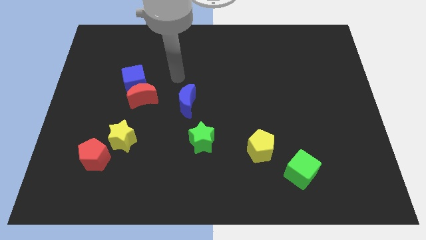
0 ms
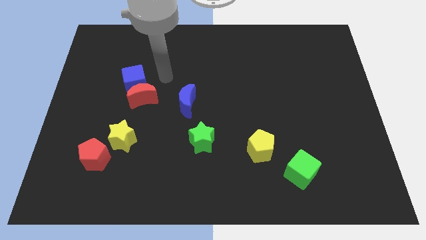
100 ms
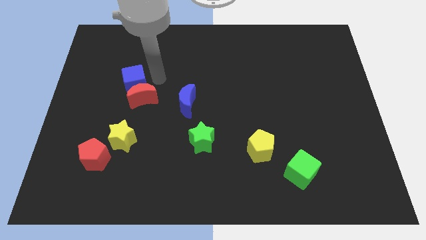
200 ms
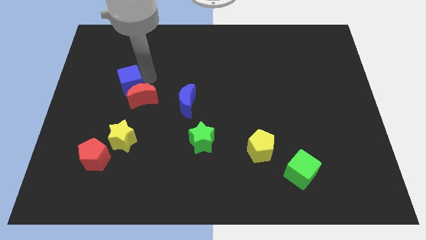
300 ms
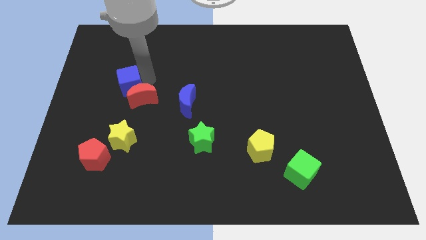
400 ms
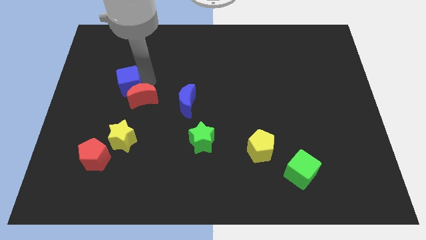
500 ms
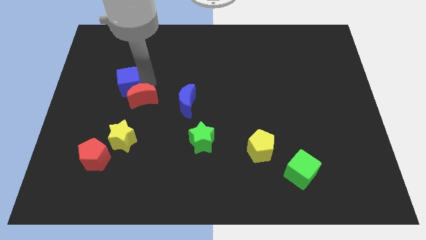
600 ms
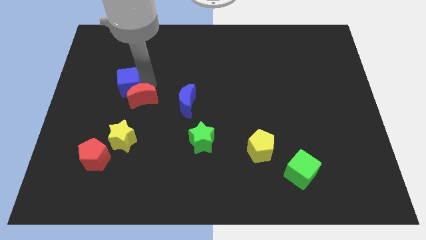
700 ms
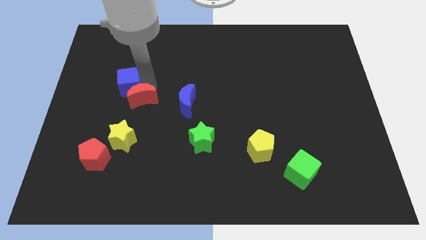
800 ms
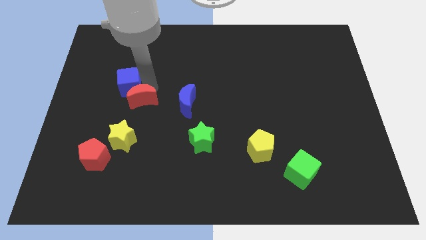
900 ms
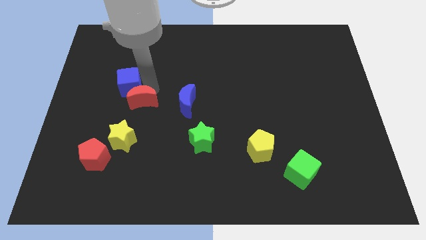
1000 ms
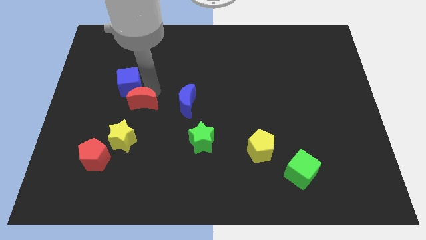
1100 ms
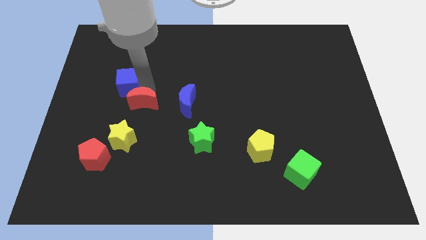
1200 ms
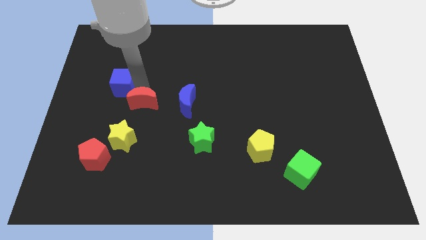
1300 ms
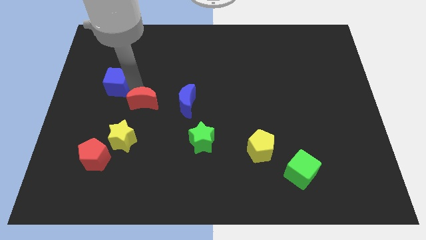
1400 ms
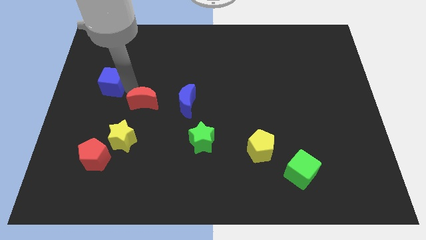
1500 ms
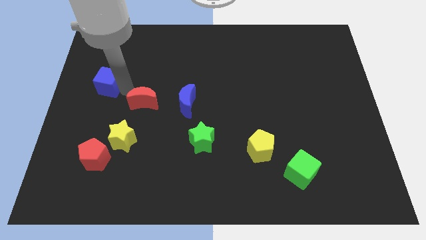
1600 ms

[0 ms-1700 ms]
pull the red moon apart from the blue cube

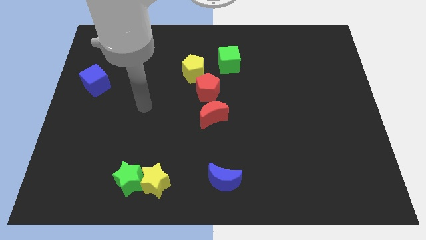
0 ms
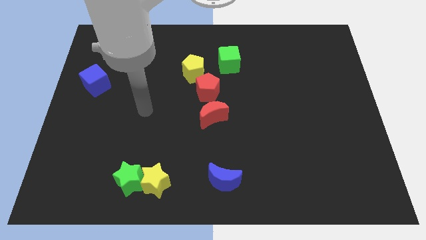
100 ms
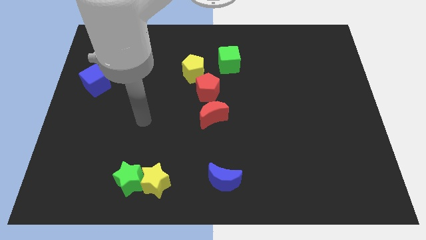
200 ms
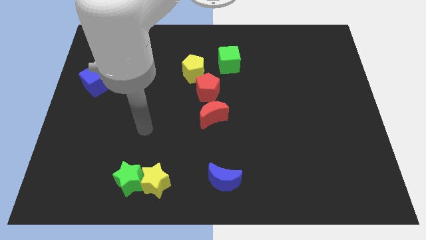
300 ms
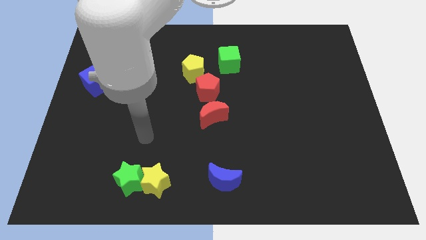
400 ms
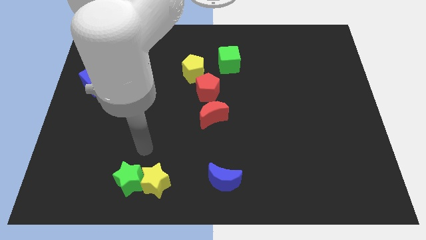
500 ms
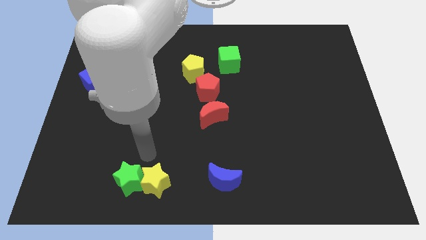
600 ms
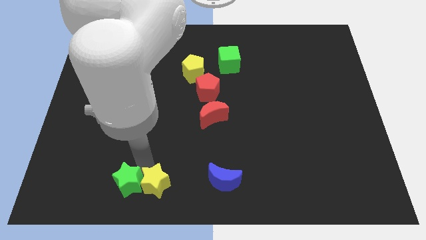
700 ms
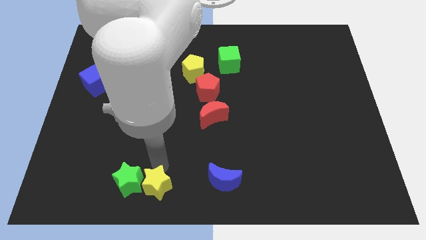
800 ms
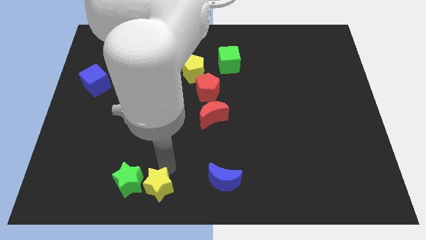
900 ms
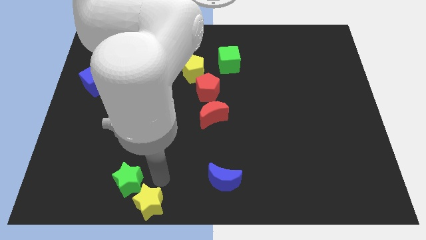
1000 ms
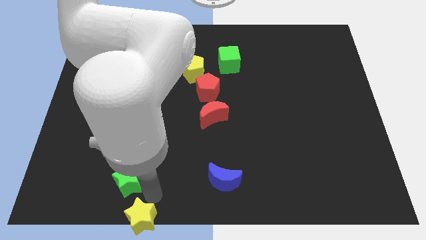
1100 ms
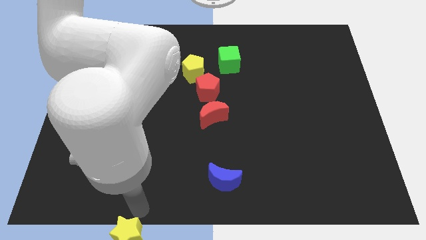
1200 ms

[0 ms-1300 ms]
separate the green star from the yellow star

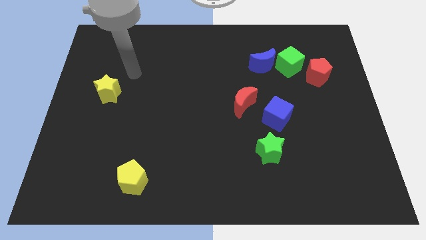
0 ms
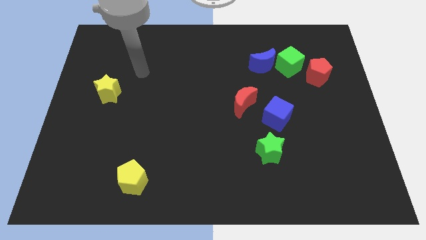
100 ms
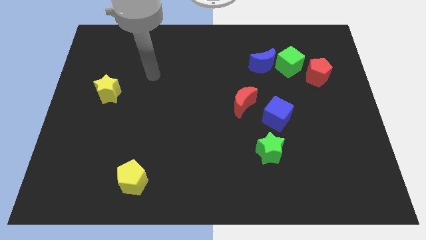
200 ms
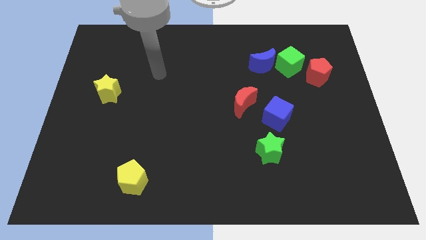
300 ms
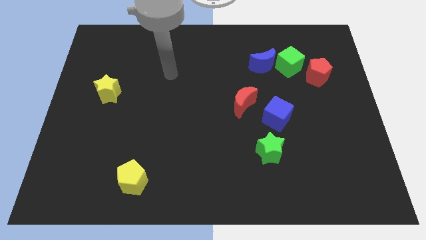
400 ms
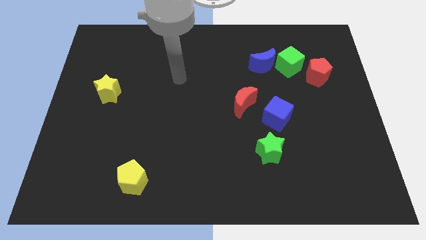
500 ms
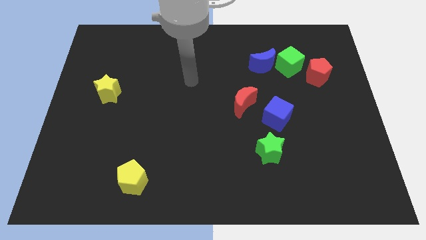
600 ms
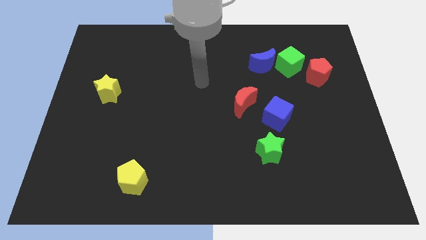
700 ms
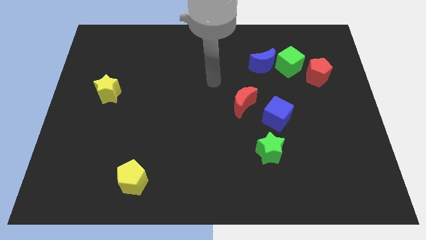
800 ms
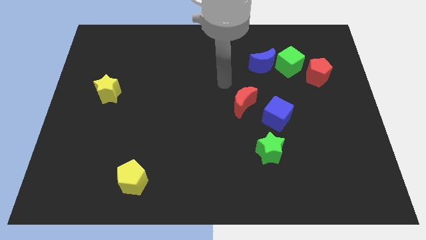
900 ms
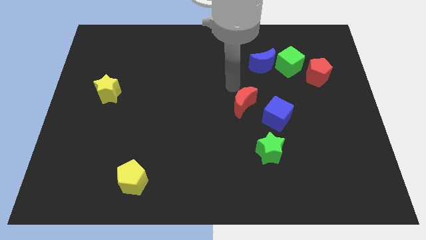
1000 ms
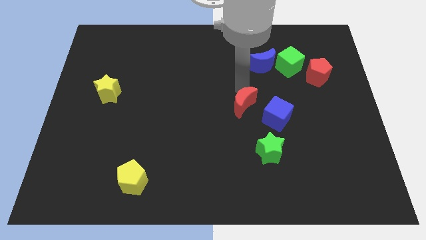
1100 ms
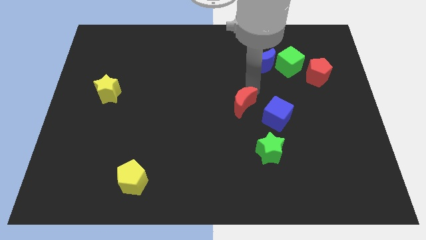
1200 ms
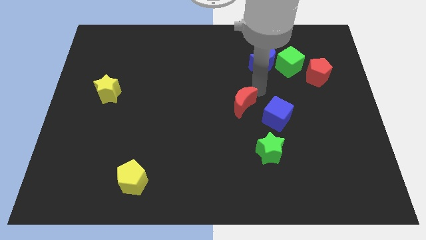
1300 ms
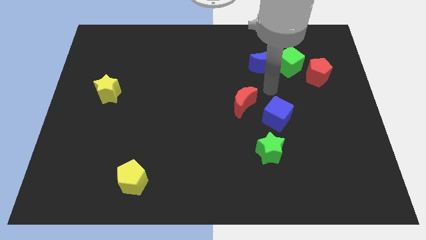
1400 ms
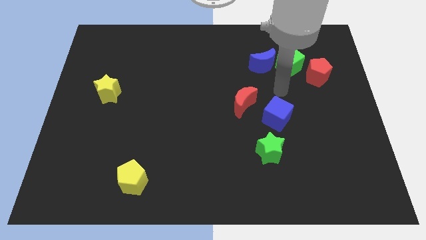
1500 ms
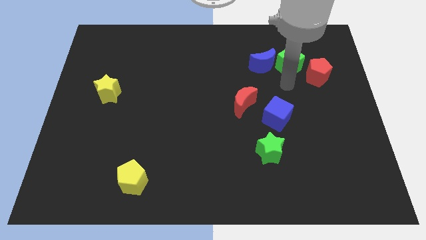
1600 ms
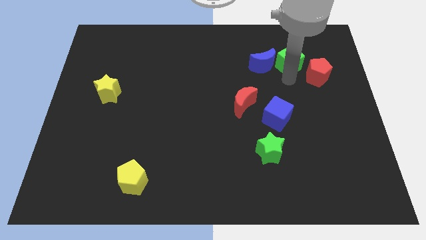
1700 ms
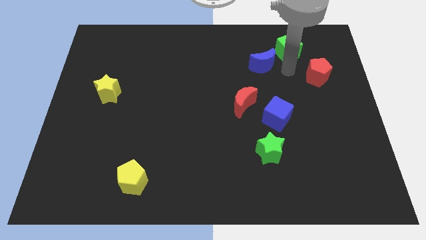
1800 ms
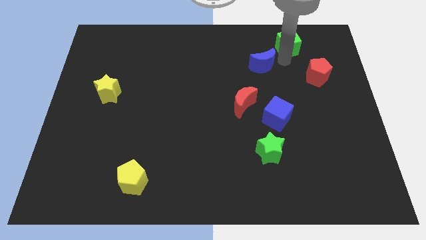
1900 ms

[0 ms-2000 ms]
move the blue moon away from the green cube

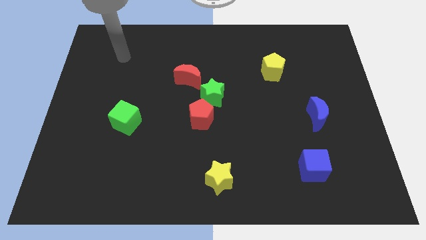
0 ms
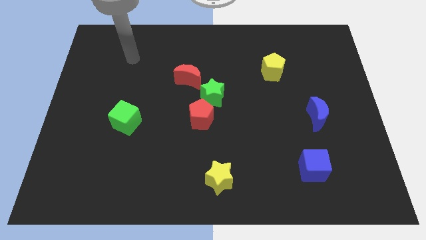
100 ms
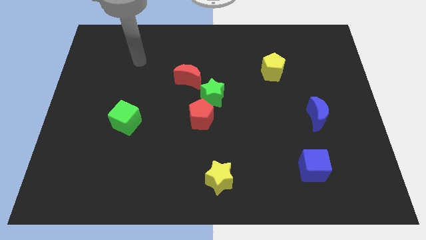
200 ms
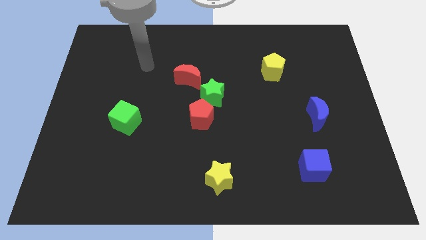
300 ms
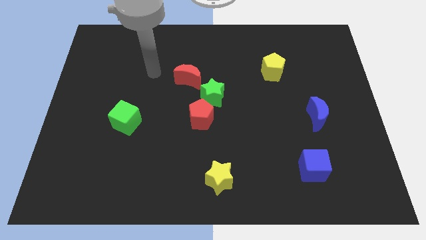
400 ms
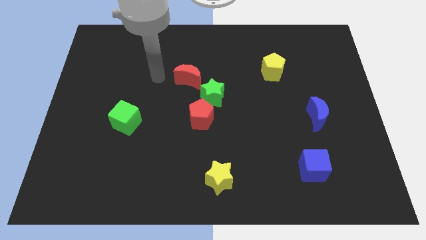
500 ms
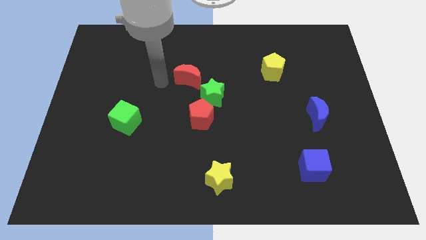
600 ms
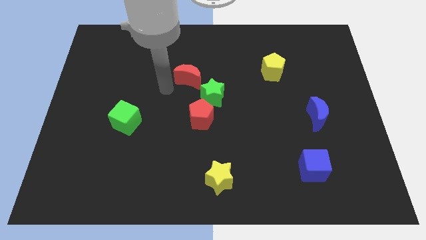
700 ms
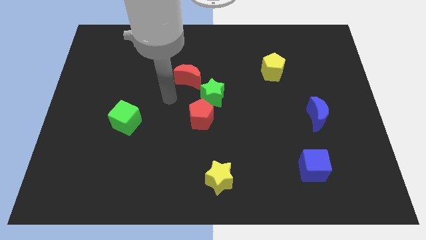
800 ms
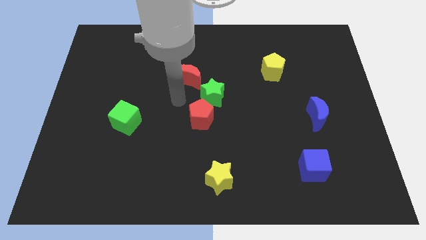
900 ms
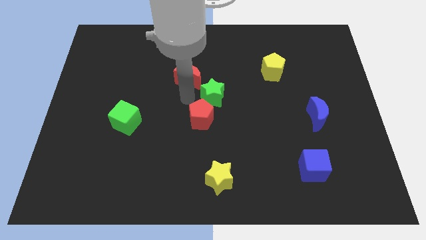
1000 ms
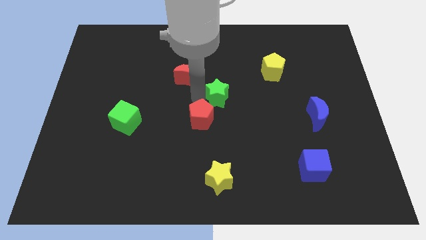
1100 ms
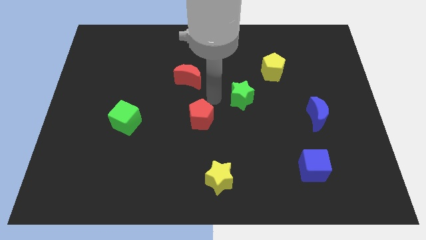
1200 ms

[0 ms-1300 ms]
pull the red pentagon apart from the green star

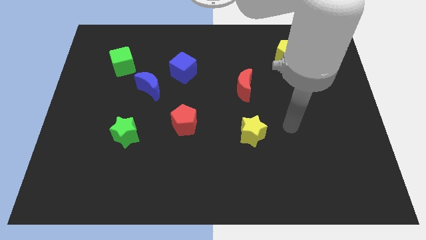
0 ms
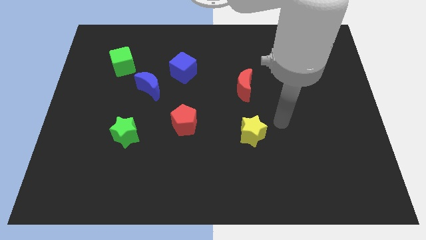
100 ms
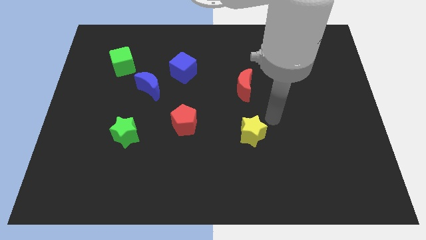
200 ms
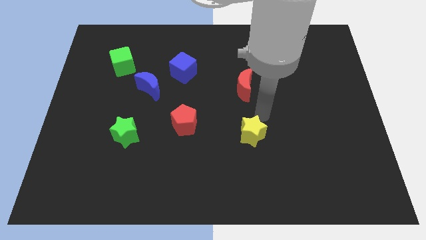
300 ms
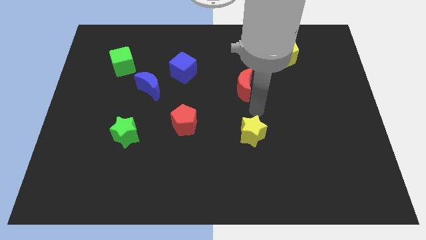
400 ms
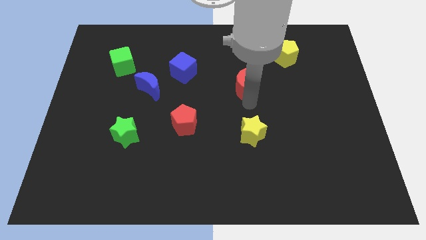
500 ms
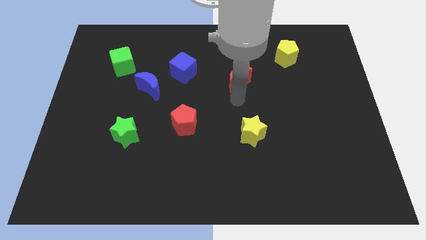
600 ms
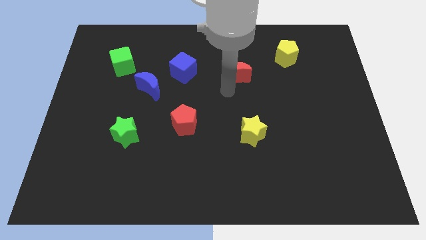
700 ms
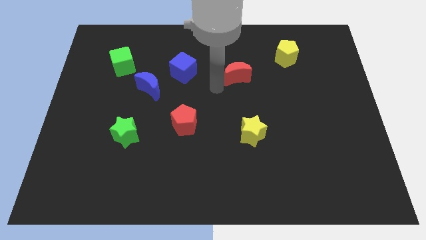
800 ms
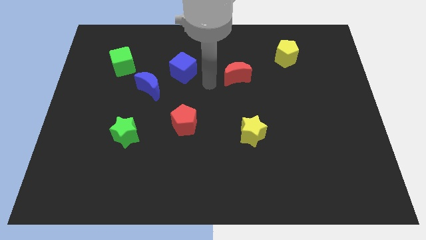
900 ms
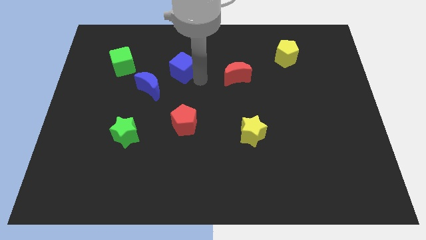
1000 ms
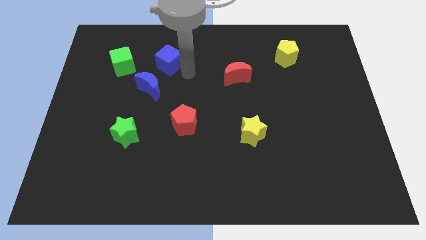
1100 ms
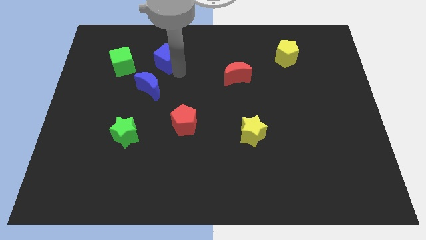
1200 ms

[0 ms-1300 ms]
separate the blue moon from the blue cube

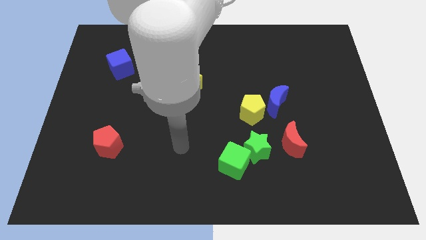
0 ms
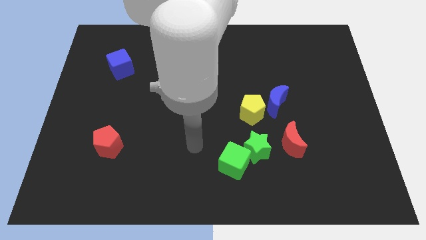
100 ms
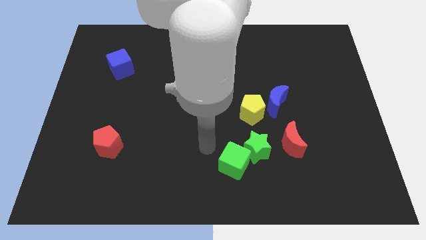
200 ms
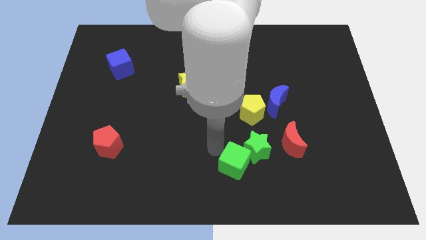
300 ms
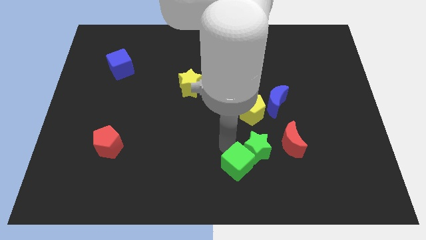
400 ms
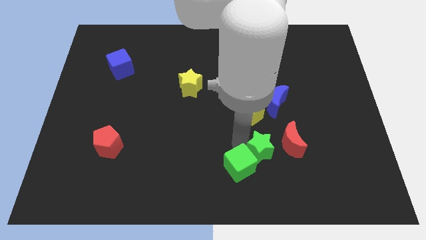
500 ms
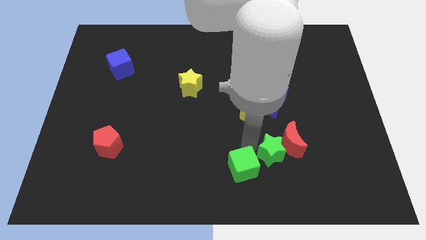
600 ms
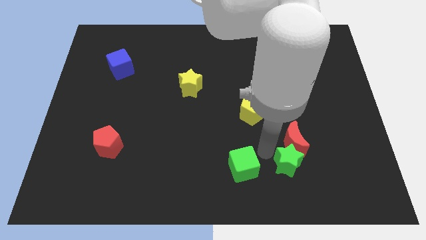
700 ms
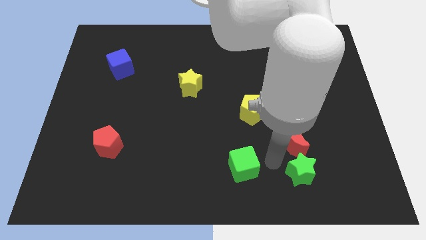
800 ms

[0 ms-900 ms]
separate the green cube from the green star

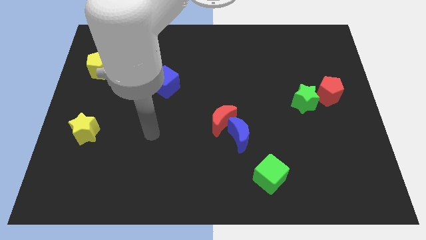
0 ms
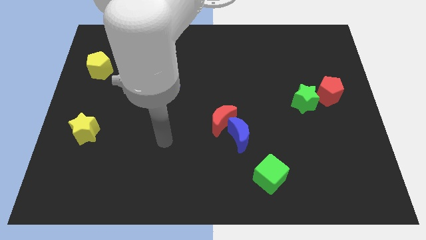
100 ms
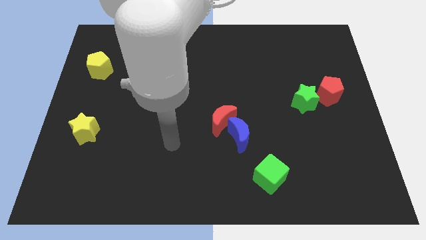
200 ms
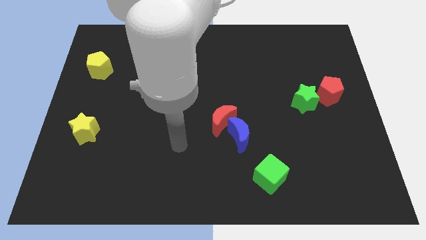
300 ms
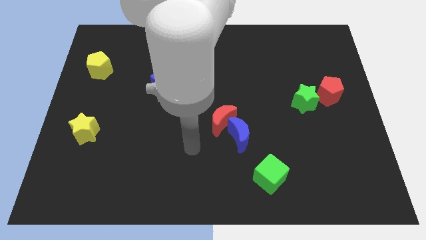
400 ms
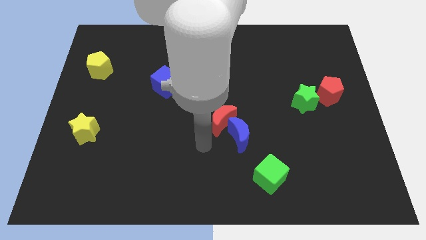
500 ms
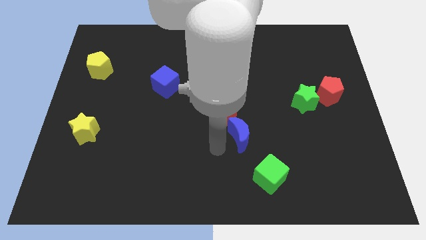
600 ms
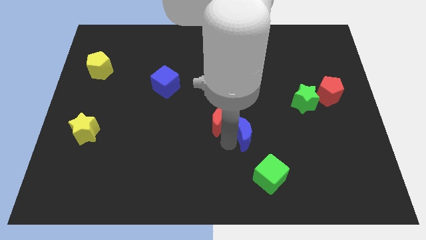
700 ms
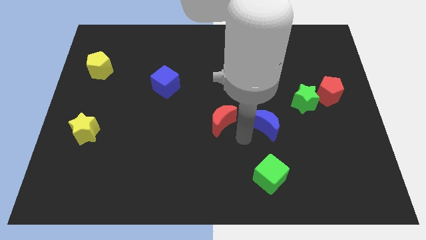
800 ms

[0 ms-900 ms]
separate the red moon from the blue moon
